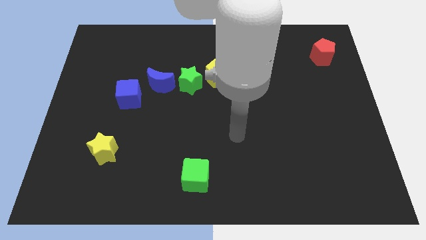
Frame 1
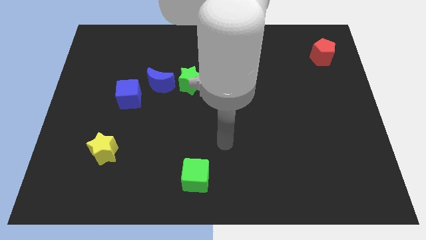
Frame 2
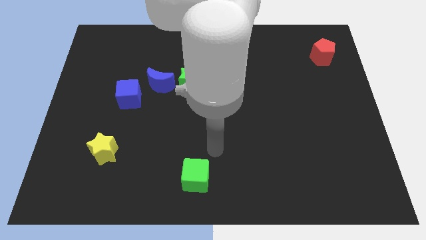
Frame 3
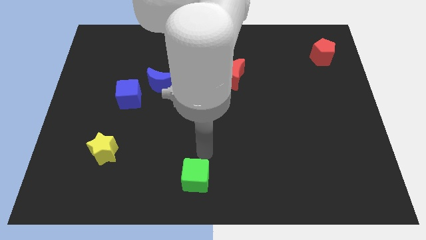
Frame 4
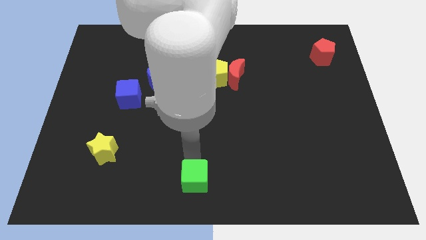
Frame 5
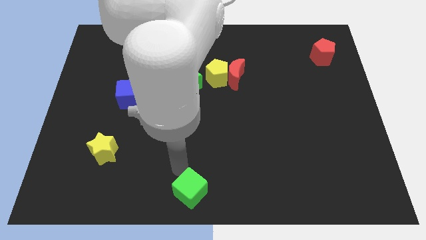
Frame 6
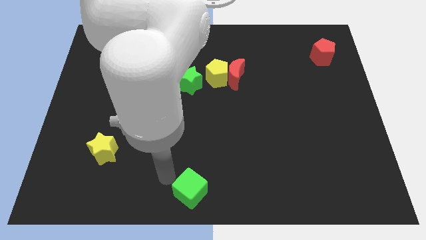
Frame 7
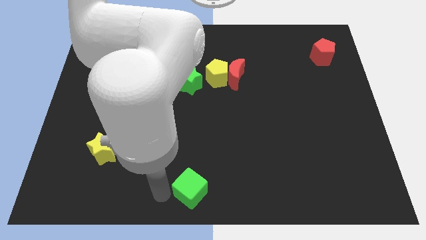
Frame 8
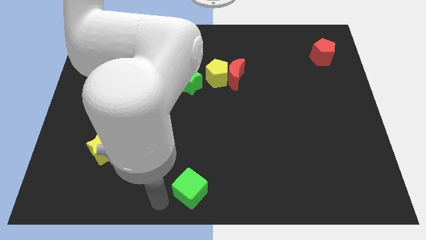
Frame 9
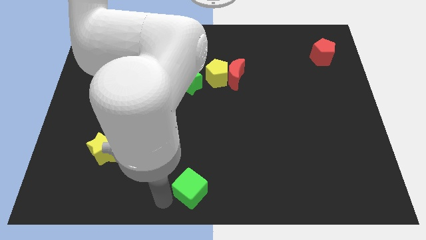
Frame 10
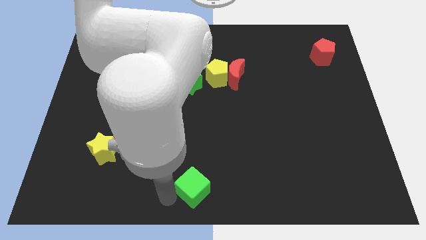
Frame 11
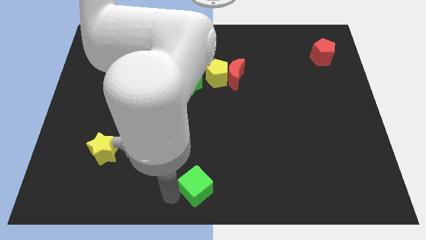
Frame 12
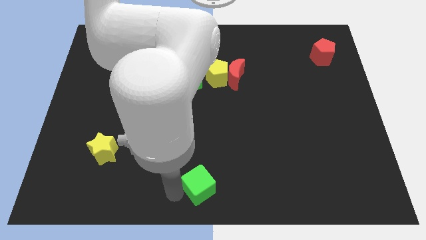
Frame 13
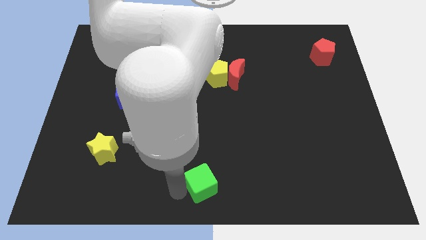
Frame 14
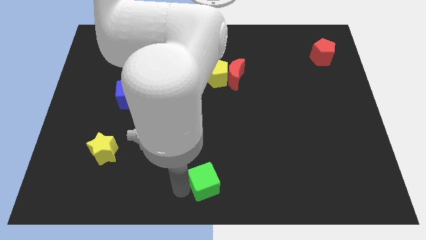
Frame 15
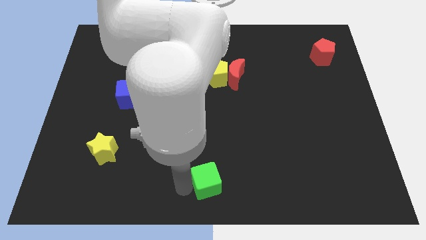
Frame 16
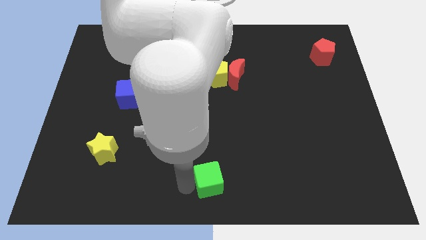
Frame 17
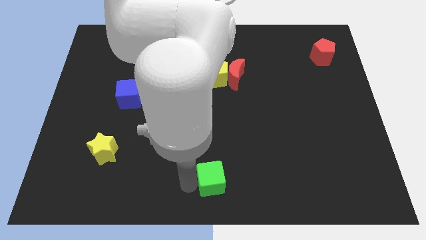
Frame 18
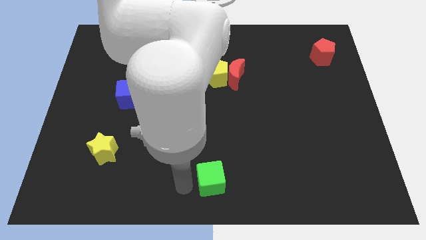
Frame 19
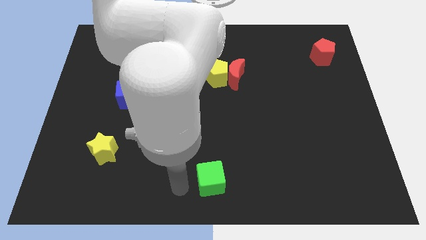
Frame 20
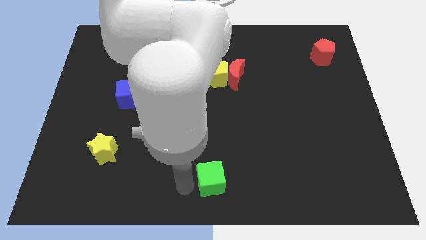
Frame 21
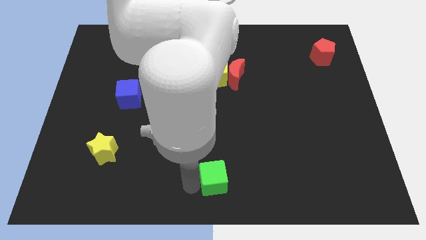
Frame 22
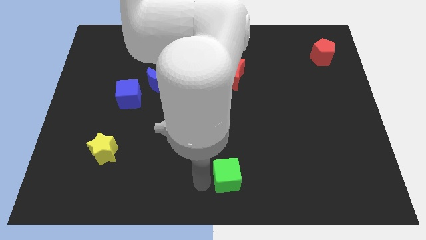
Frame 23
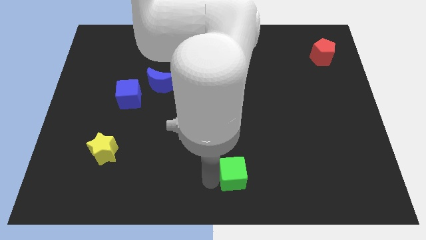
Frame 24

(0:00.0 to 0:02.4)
slightly slide the green cube right

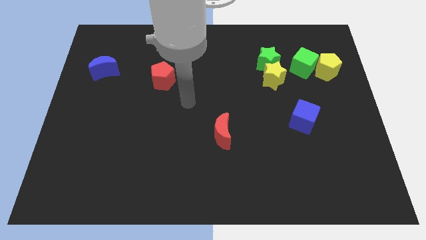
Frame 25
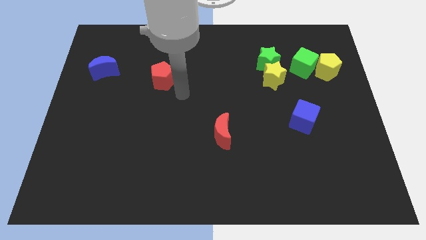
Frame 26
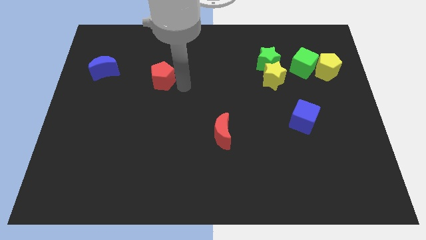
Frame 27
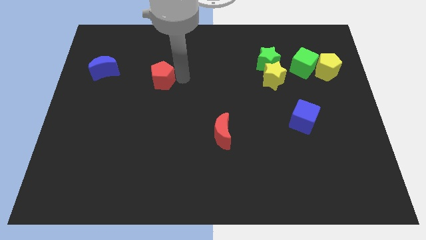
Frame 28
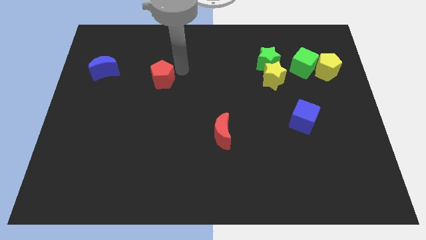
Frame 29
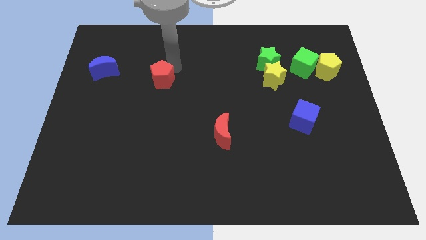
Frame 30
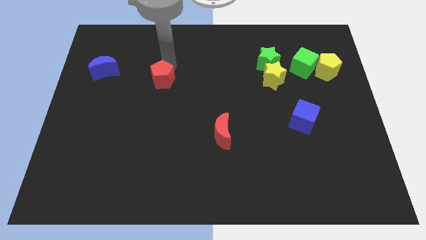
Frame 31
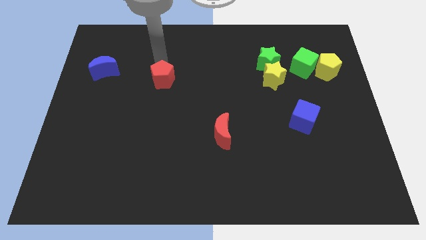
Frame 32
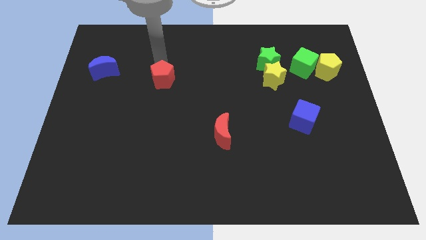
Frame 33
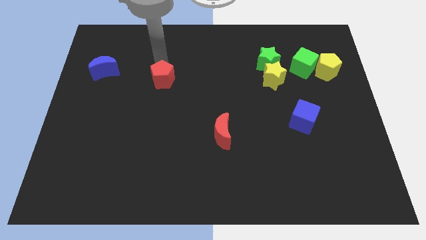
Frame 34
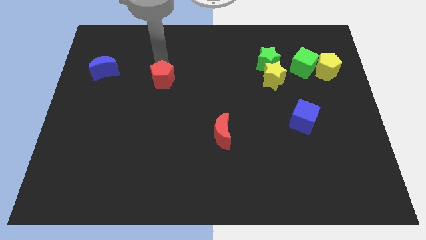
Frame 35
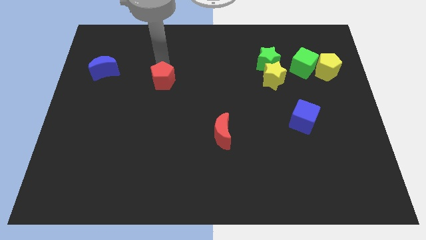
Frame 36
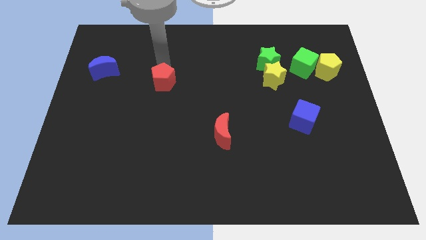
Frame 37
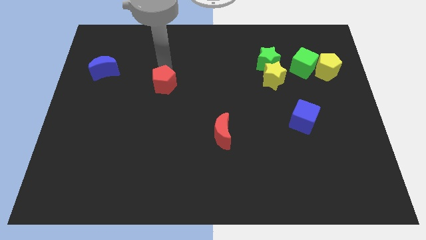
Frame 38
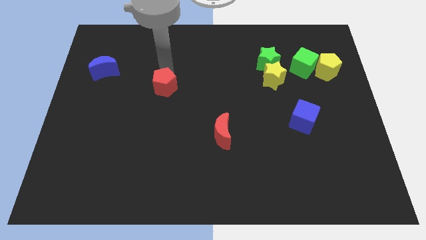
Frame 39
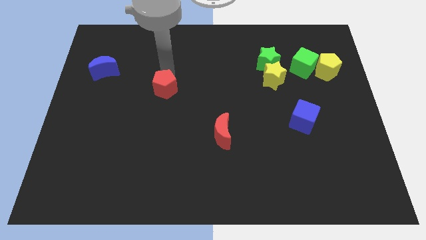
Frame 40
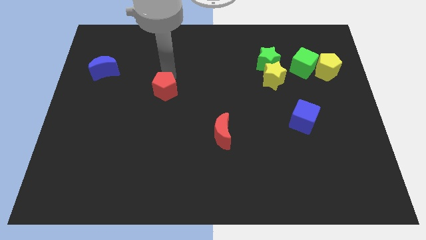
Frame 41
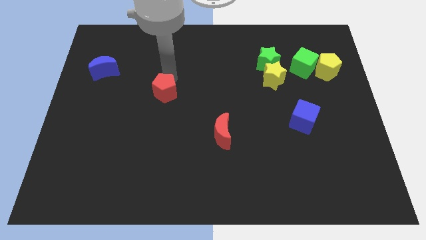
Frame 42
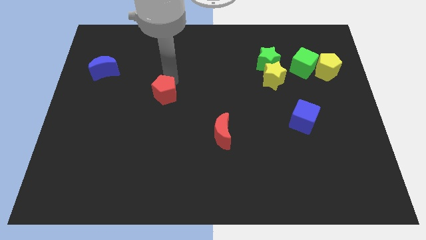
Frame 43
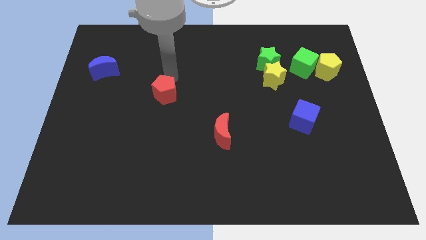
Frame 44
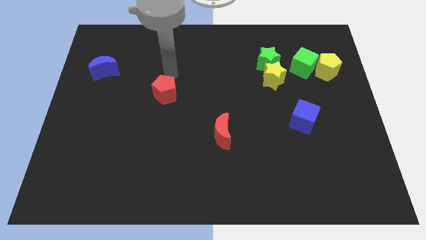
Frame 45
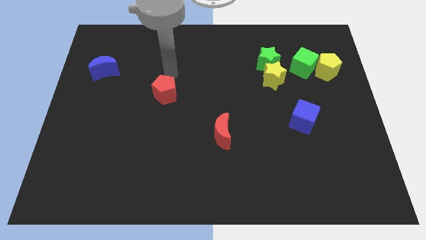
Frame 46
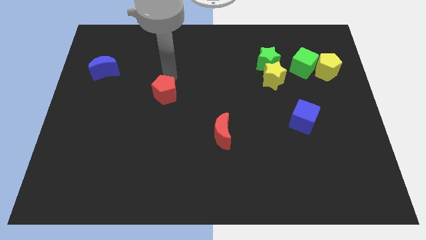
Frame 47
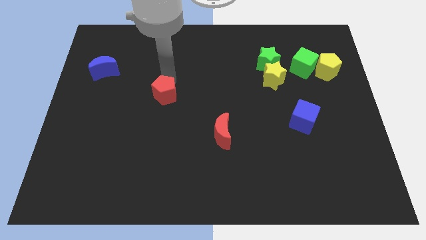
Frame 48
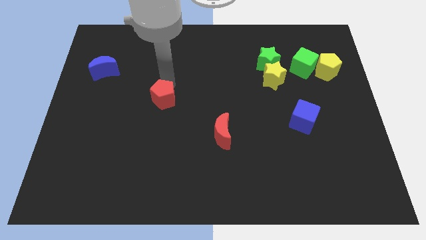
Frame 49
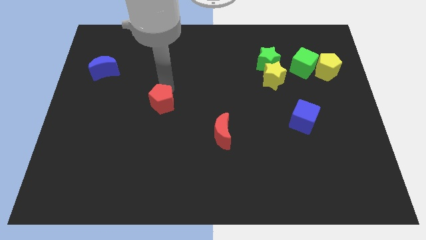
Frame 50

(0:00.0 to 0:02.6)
slide the red pentagon down somewhat

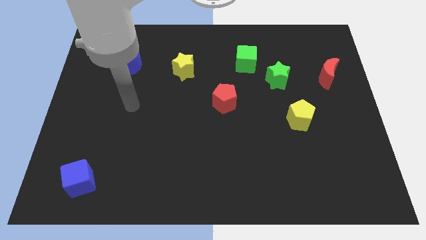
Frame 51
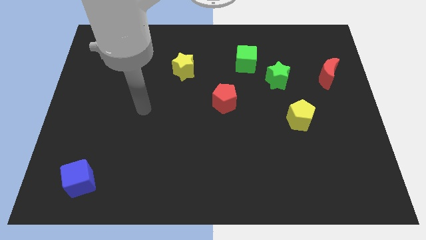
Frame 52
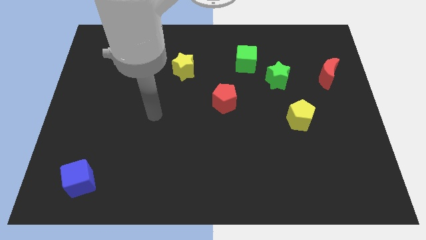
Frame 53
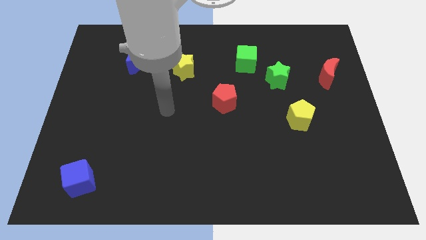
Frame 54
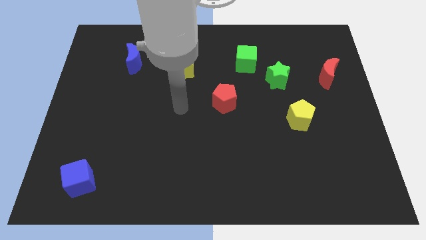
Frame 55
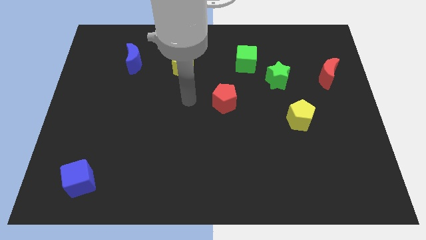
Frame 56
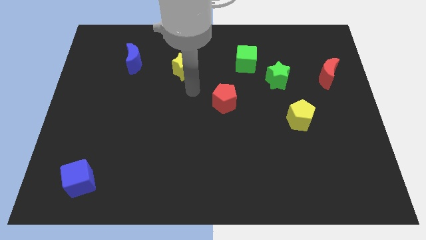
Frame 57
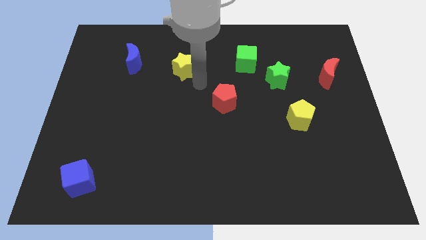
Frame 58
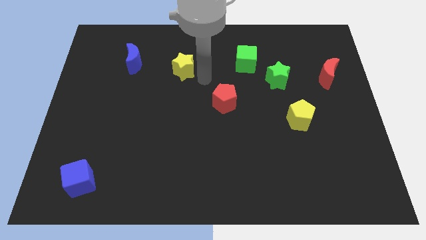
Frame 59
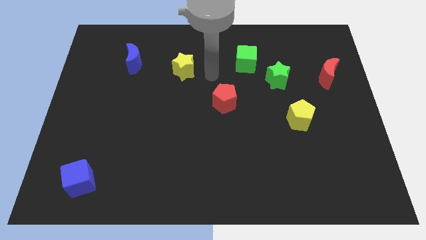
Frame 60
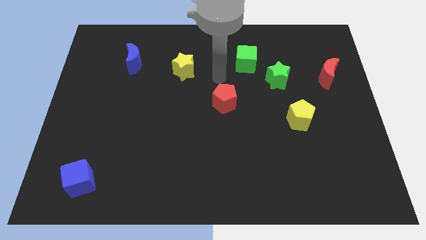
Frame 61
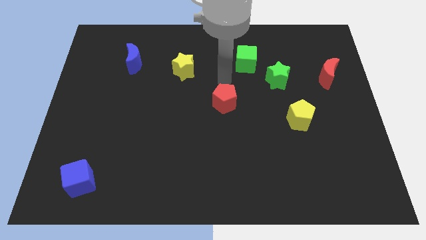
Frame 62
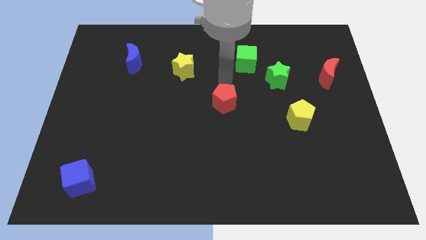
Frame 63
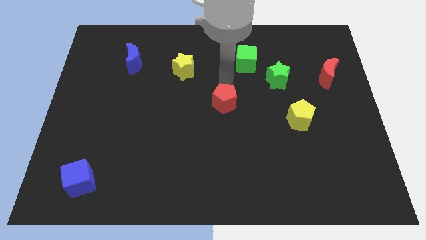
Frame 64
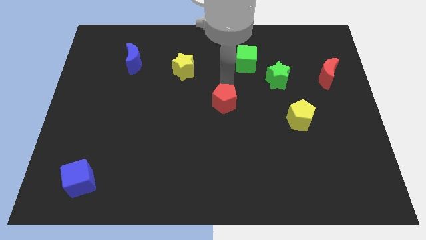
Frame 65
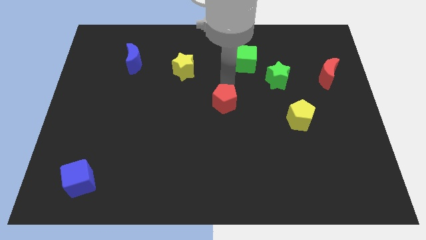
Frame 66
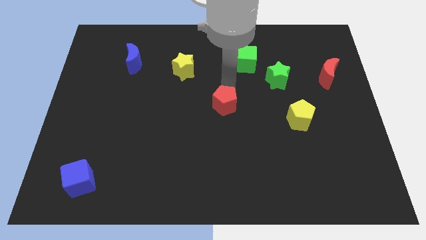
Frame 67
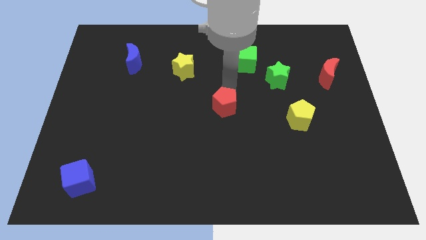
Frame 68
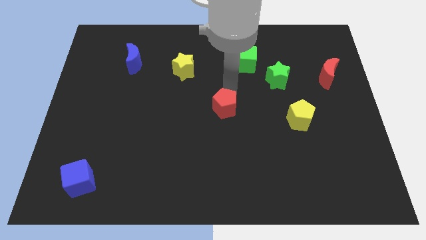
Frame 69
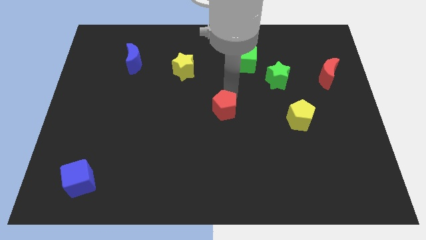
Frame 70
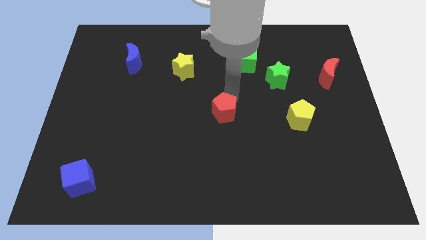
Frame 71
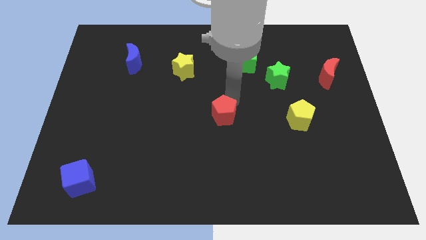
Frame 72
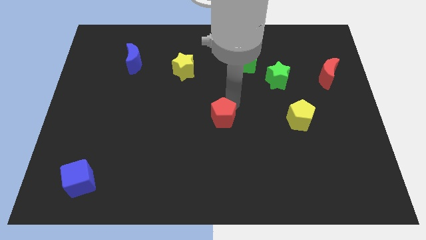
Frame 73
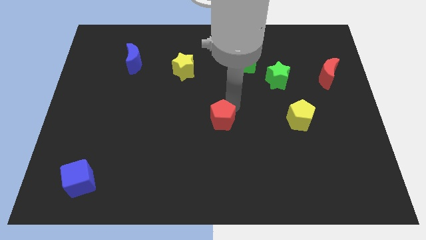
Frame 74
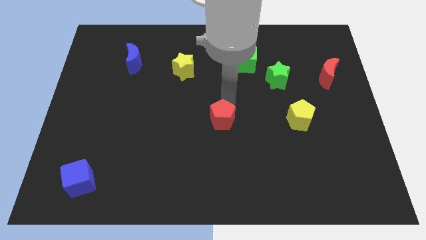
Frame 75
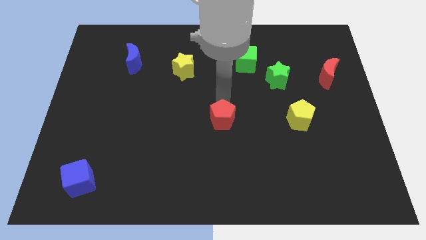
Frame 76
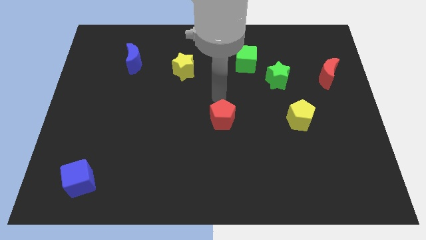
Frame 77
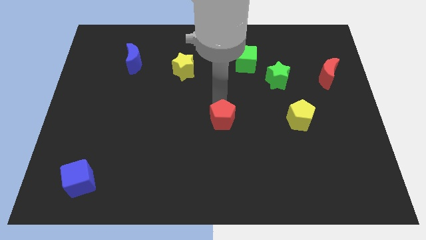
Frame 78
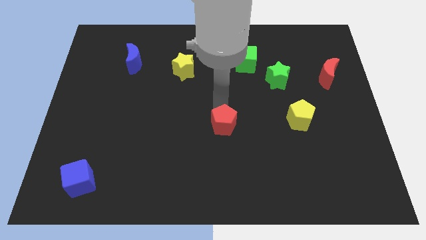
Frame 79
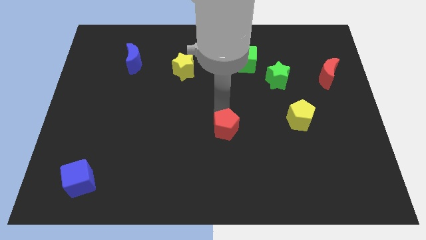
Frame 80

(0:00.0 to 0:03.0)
slightly push the red pentagon downwards

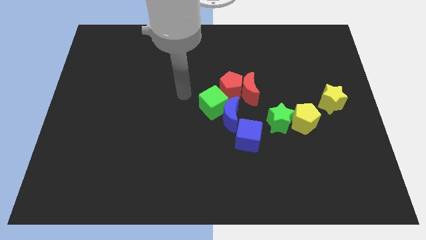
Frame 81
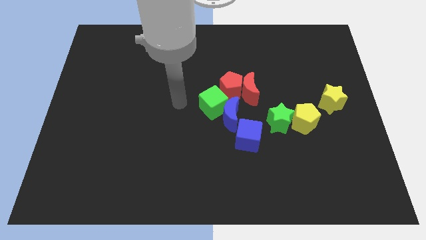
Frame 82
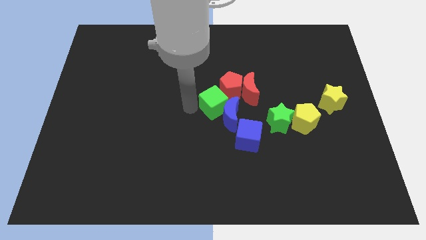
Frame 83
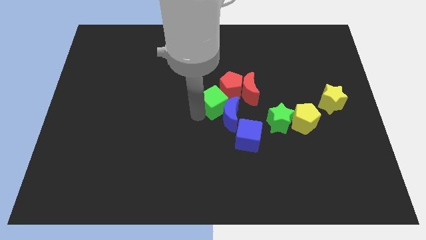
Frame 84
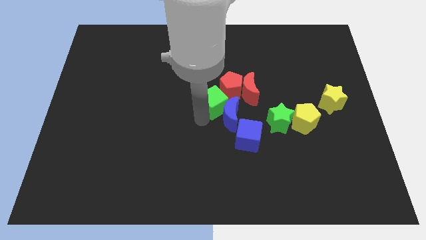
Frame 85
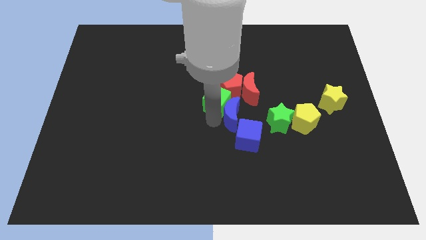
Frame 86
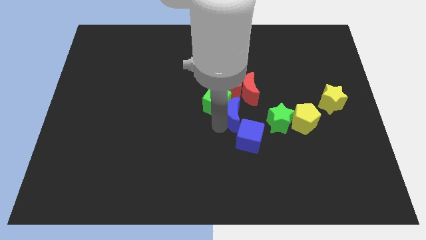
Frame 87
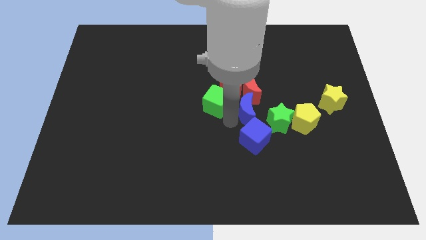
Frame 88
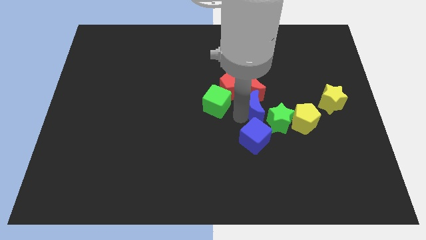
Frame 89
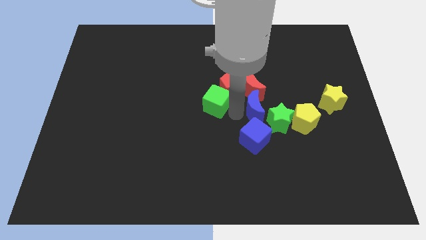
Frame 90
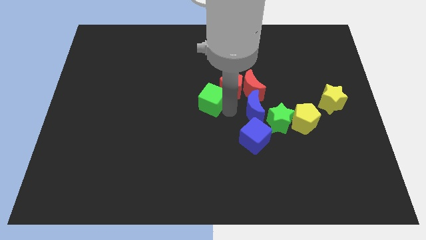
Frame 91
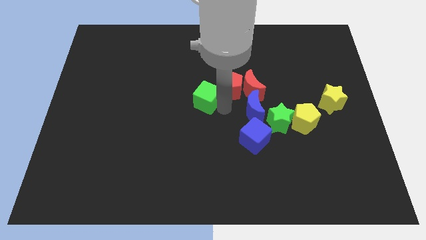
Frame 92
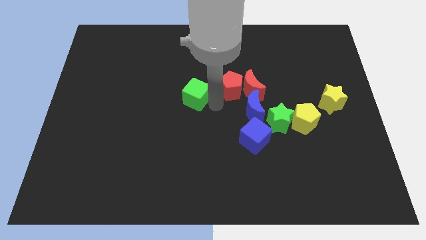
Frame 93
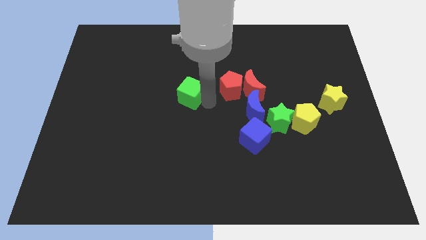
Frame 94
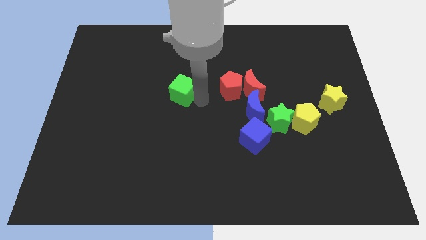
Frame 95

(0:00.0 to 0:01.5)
move the green cube slightly up and left
